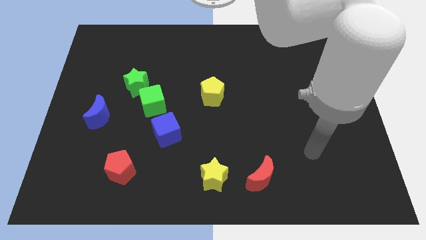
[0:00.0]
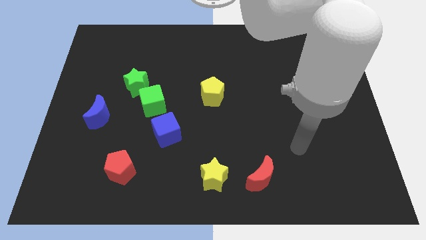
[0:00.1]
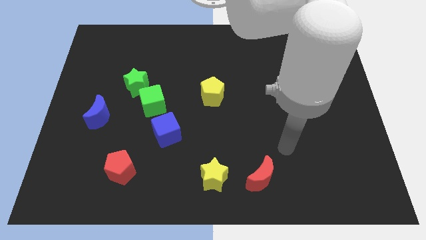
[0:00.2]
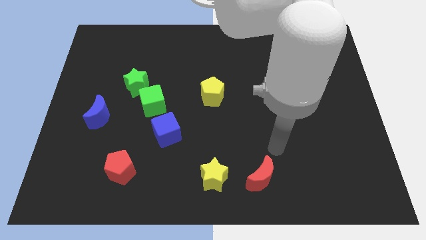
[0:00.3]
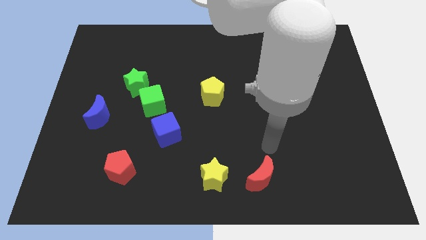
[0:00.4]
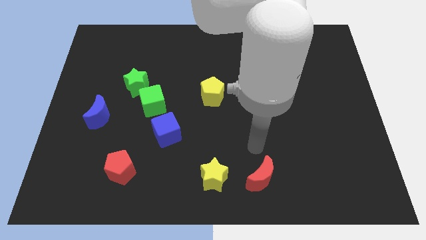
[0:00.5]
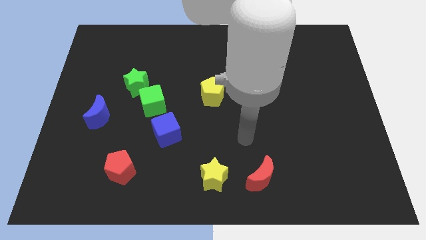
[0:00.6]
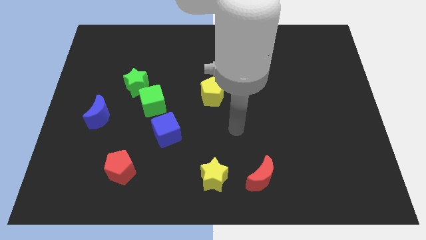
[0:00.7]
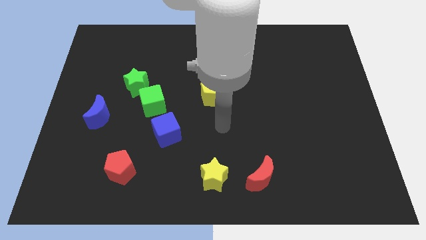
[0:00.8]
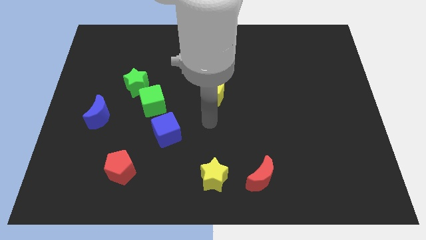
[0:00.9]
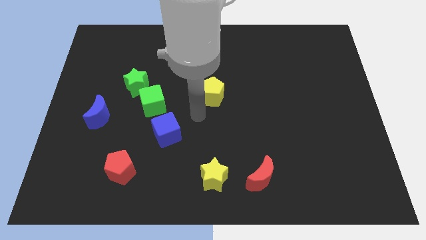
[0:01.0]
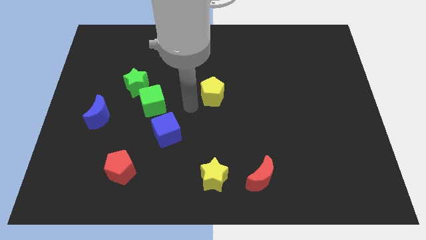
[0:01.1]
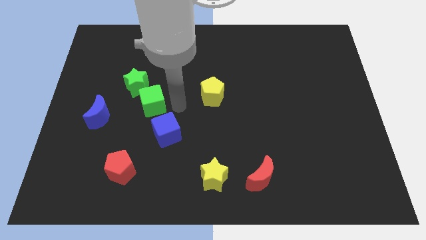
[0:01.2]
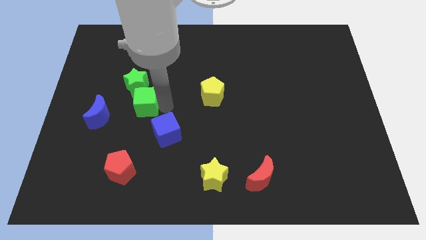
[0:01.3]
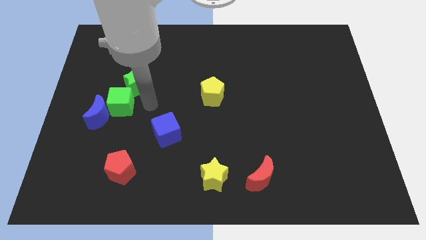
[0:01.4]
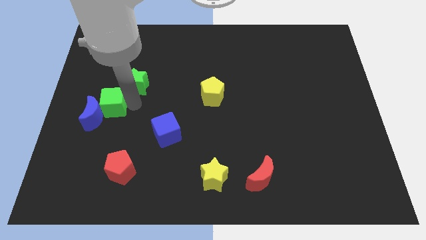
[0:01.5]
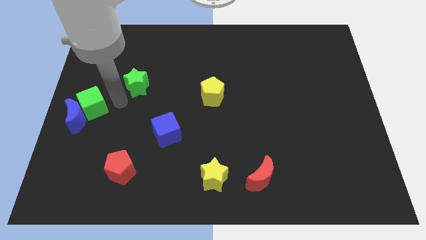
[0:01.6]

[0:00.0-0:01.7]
separate the green star from the green cube

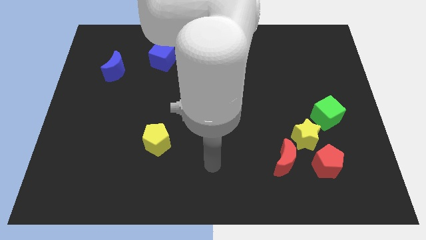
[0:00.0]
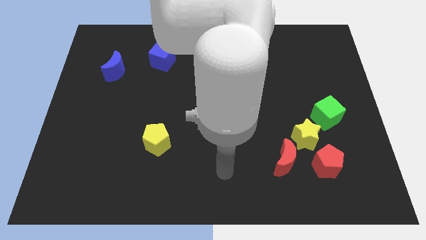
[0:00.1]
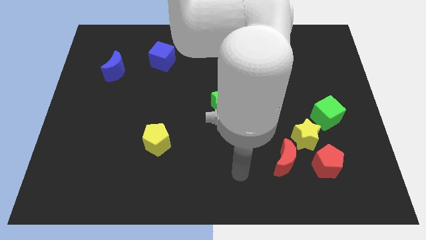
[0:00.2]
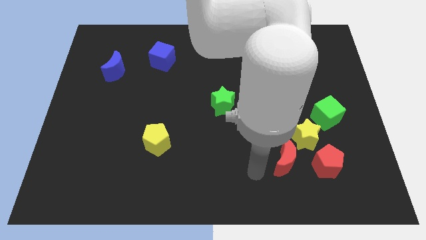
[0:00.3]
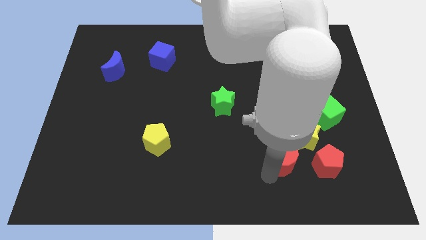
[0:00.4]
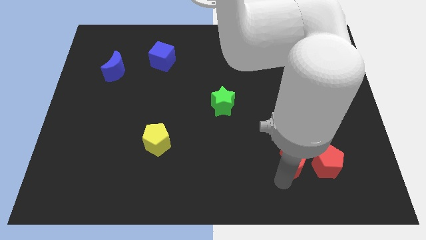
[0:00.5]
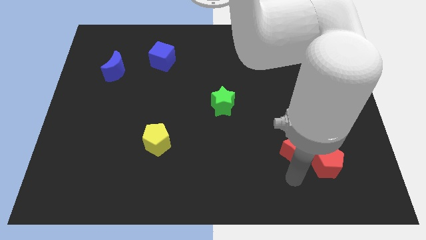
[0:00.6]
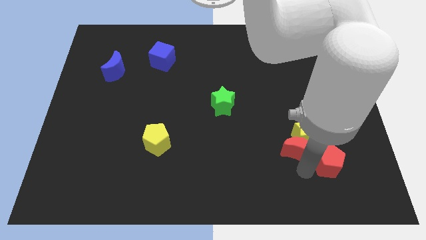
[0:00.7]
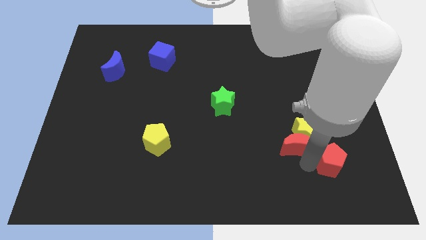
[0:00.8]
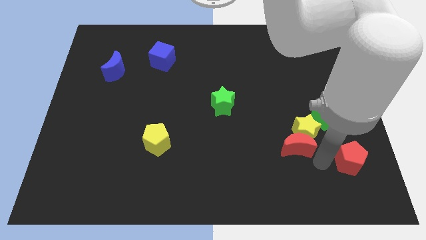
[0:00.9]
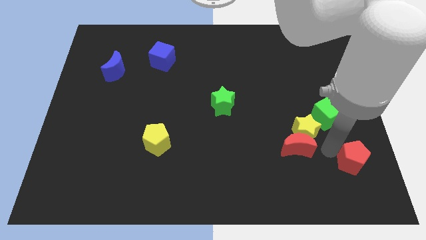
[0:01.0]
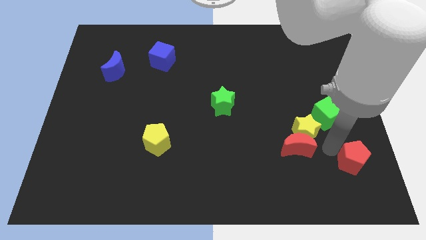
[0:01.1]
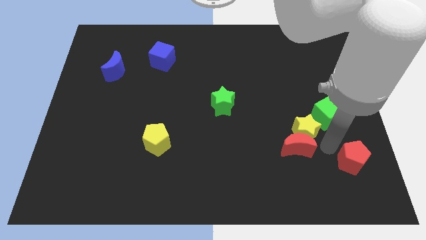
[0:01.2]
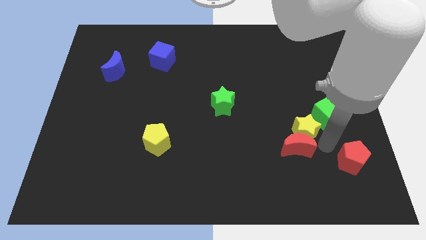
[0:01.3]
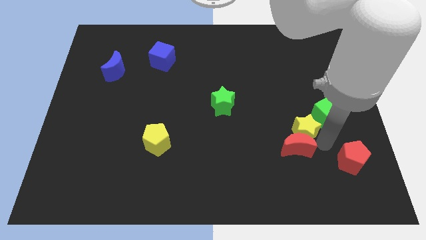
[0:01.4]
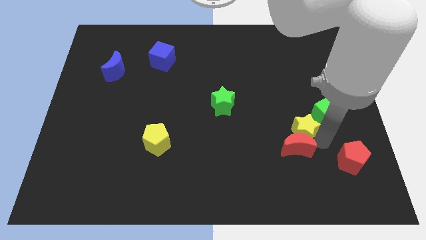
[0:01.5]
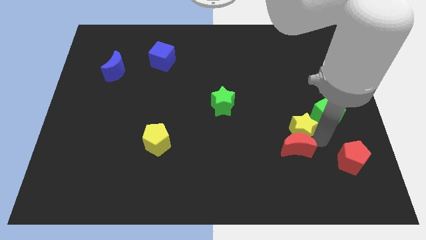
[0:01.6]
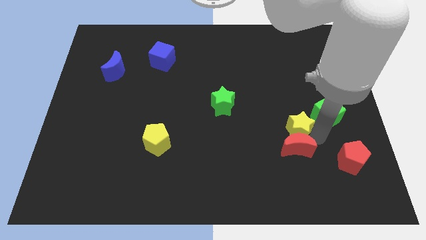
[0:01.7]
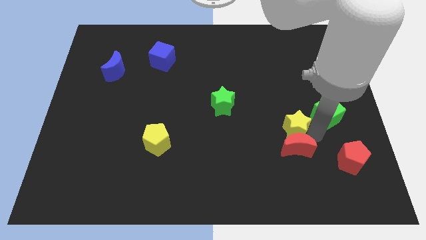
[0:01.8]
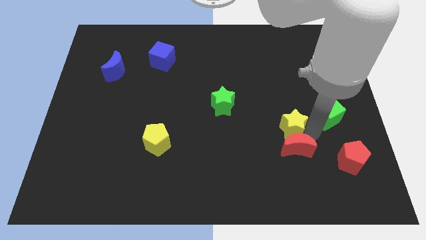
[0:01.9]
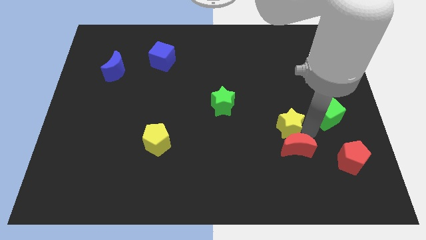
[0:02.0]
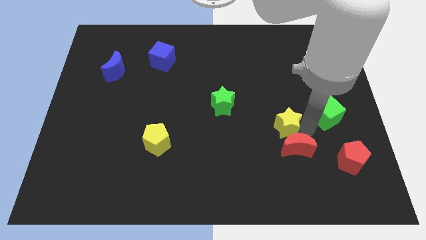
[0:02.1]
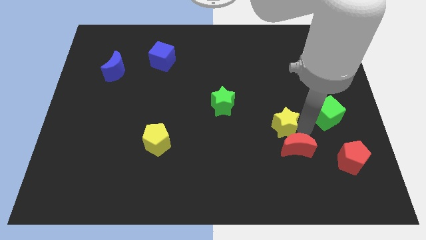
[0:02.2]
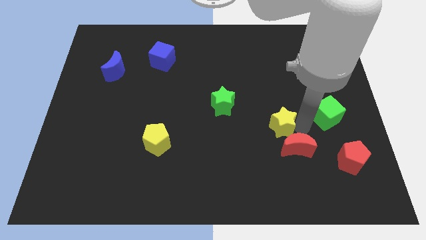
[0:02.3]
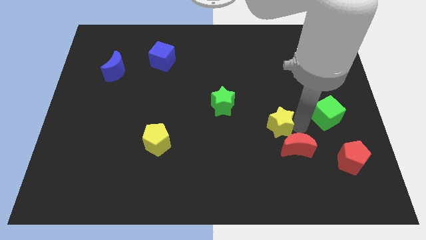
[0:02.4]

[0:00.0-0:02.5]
separate the yellow star from the group of blocks

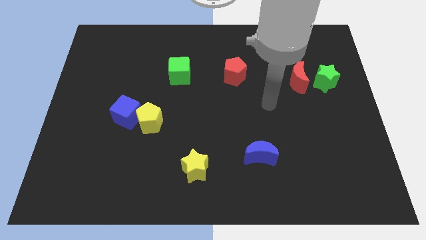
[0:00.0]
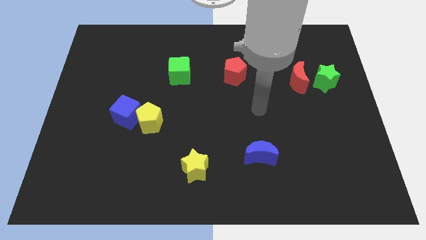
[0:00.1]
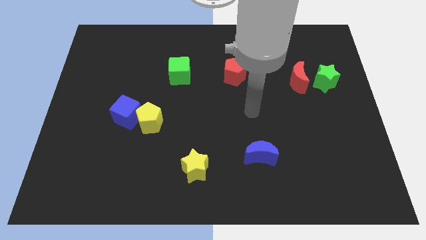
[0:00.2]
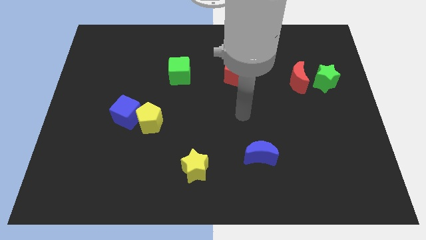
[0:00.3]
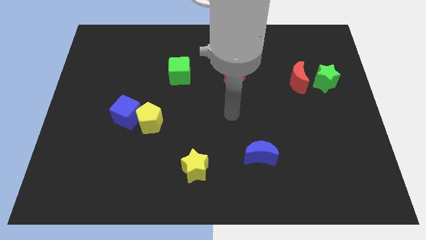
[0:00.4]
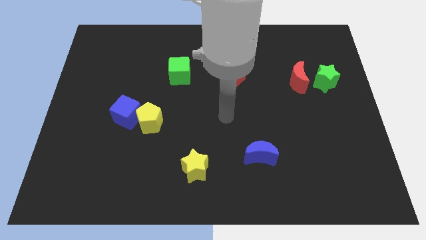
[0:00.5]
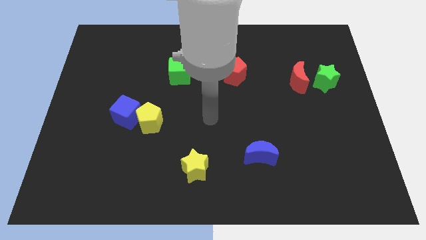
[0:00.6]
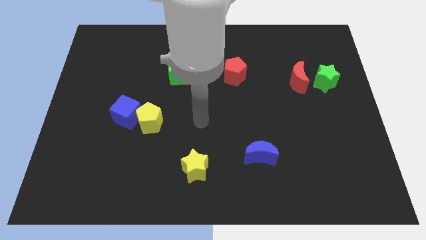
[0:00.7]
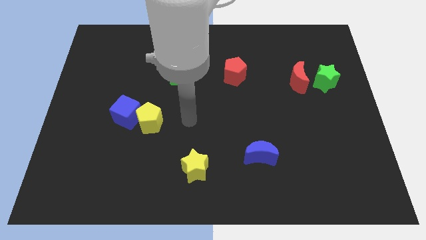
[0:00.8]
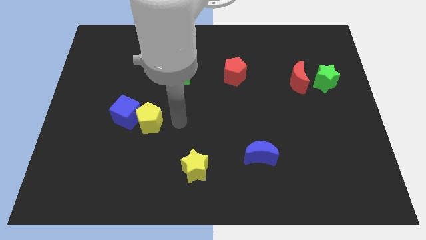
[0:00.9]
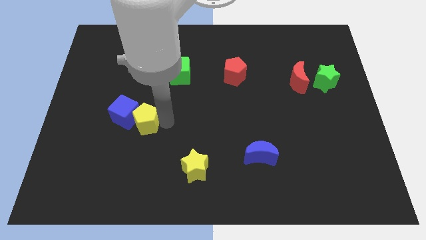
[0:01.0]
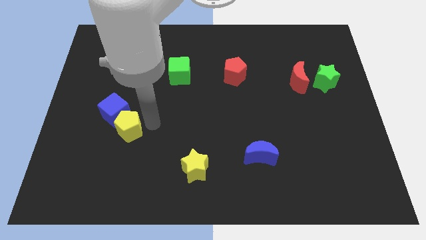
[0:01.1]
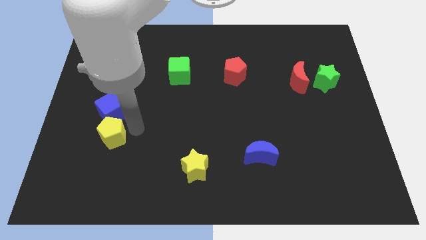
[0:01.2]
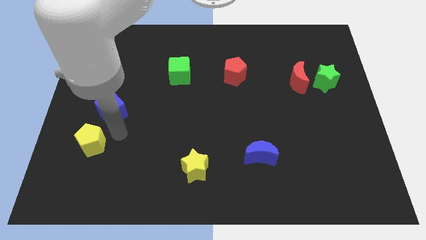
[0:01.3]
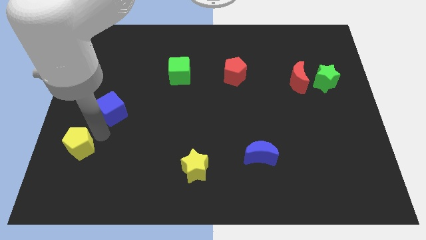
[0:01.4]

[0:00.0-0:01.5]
move the blue cube away from the yellow pentagon

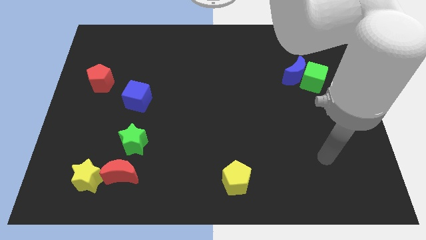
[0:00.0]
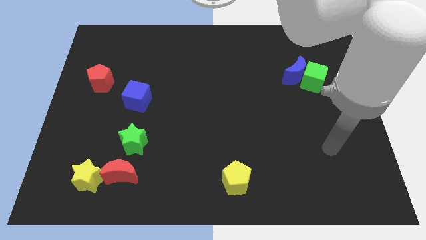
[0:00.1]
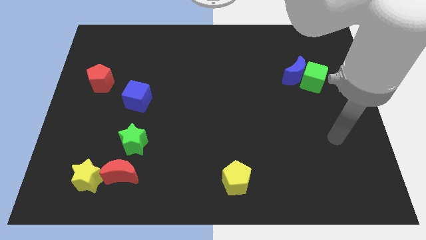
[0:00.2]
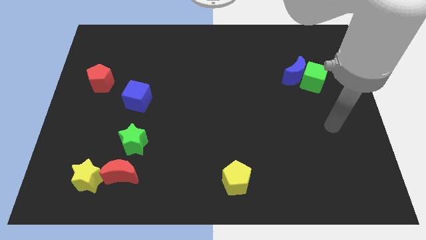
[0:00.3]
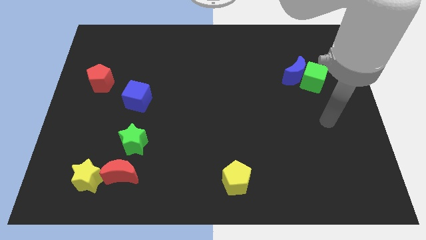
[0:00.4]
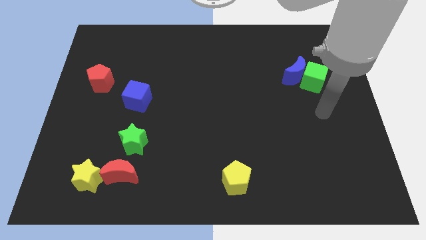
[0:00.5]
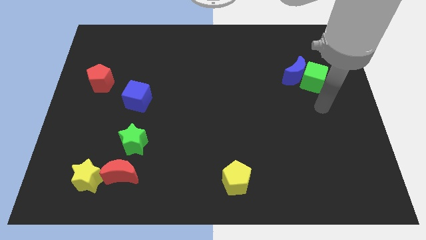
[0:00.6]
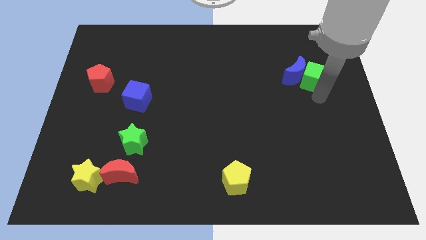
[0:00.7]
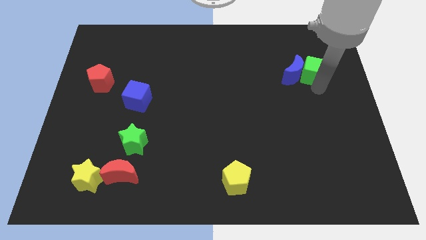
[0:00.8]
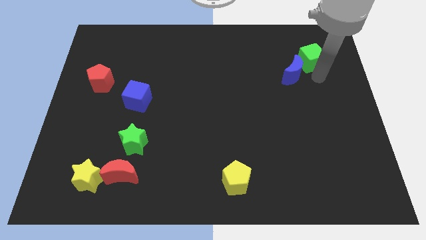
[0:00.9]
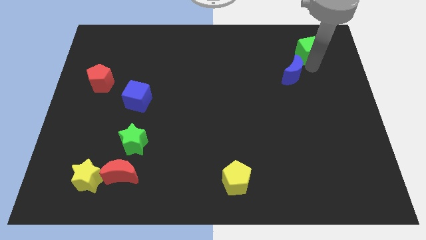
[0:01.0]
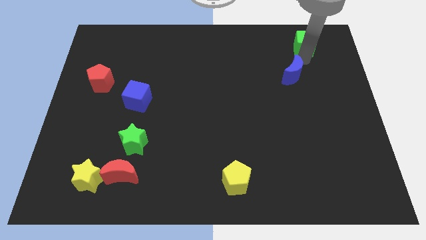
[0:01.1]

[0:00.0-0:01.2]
move the blue moon away from the green cube

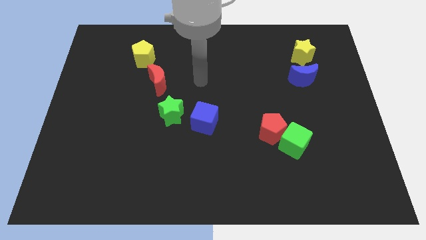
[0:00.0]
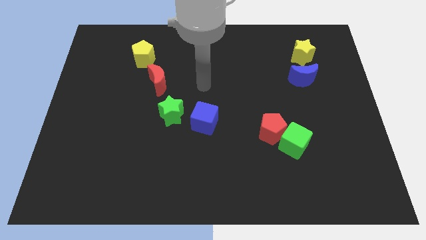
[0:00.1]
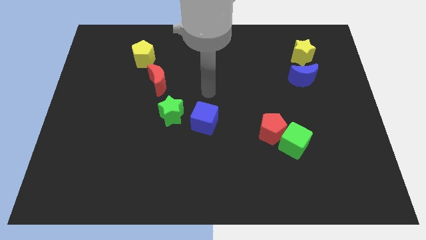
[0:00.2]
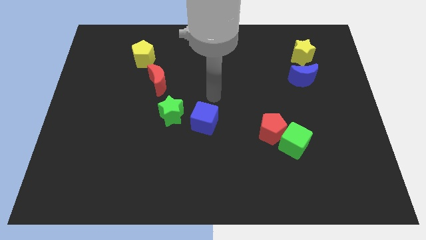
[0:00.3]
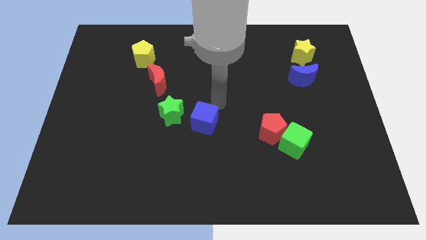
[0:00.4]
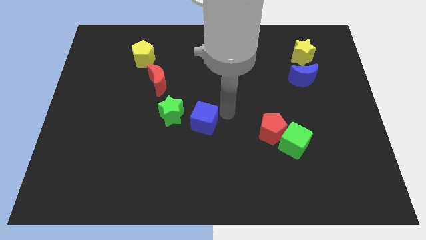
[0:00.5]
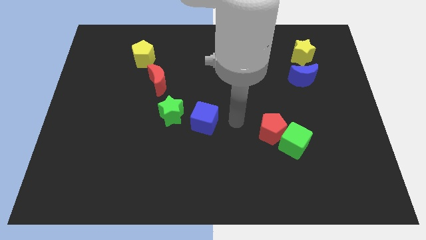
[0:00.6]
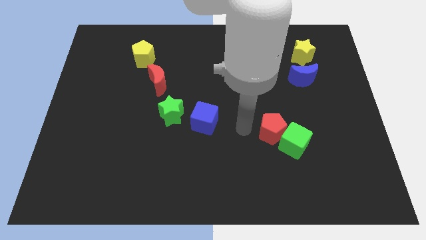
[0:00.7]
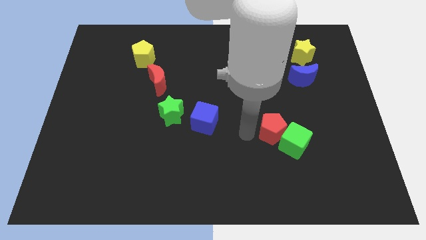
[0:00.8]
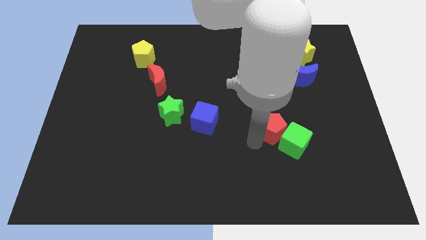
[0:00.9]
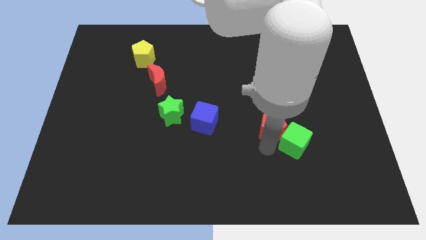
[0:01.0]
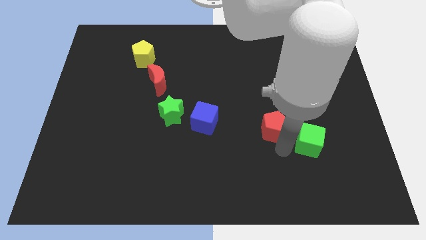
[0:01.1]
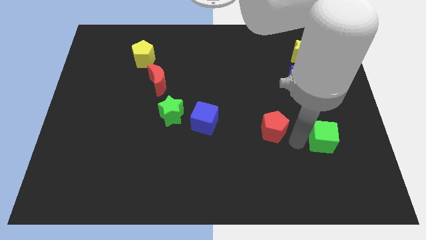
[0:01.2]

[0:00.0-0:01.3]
pull the red pentagon apart from the green cube

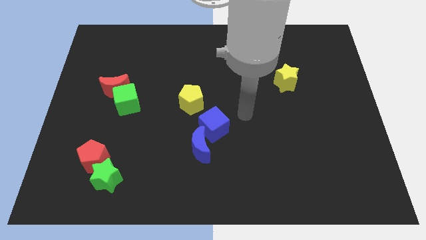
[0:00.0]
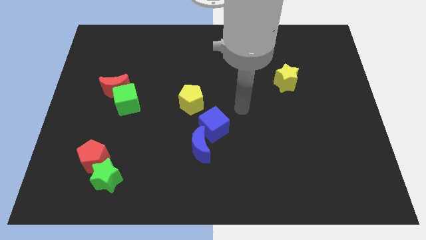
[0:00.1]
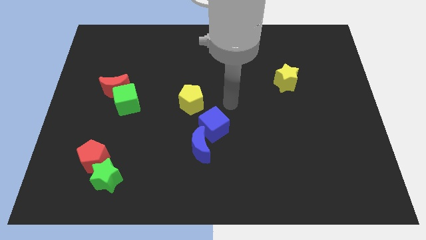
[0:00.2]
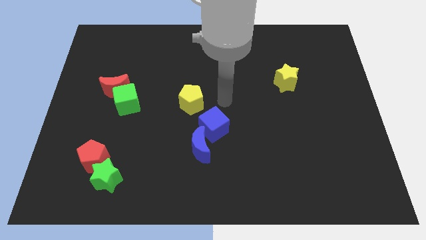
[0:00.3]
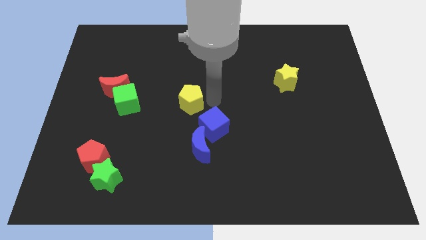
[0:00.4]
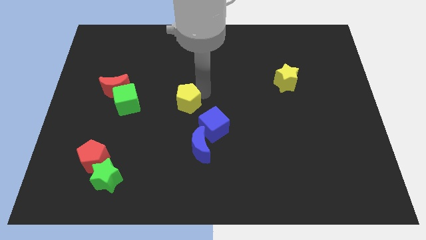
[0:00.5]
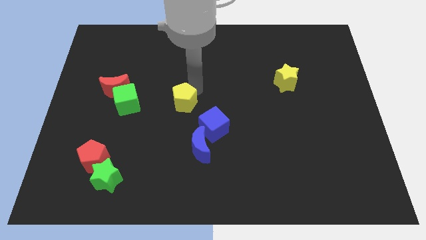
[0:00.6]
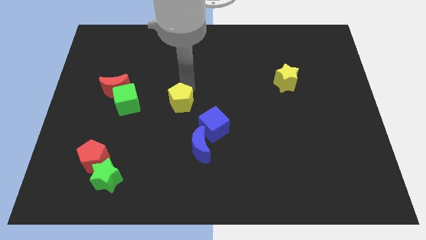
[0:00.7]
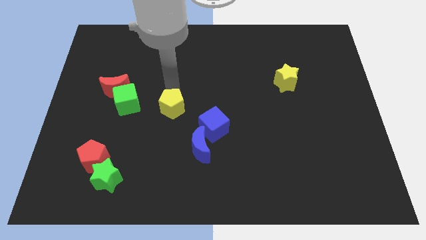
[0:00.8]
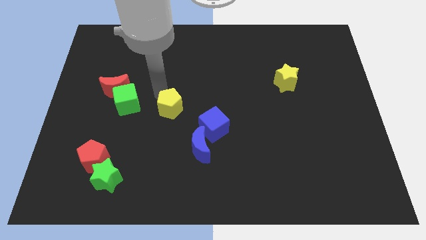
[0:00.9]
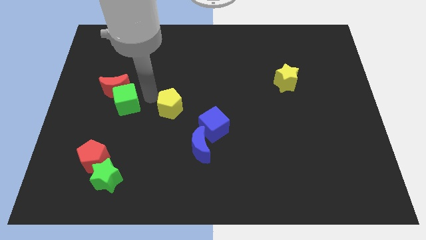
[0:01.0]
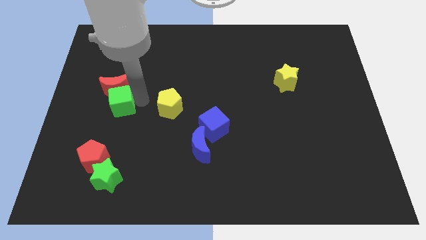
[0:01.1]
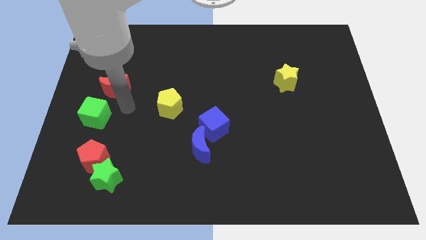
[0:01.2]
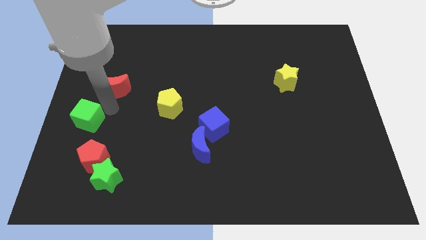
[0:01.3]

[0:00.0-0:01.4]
separate the red moon from the green cube
